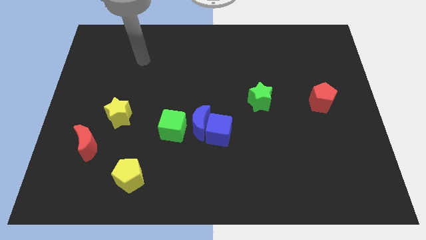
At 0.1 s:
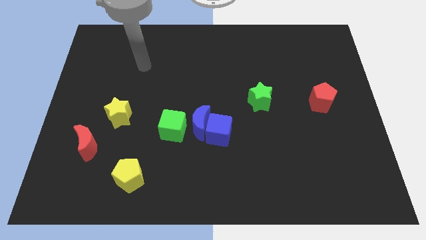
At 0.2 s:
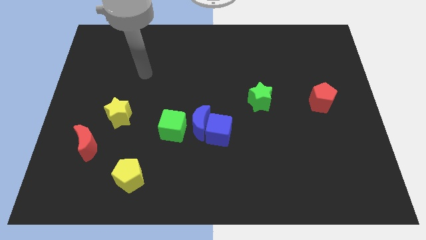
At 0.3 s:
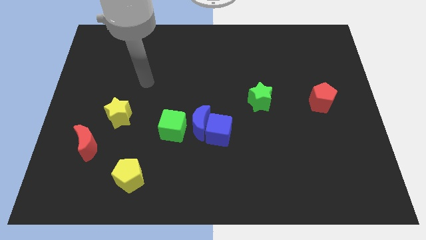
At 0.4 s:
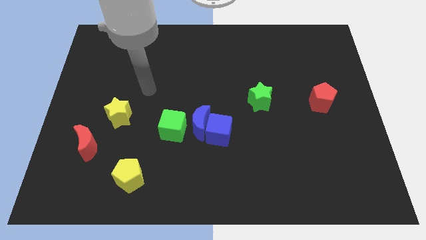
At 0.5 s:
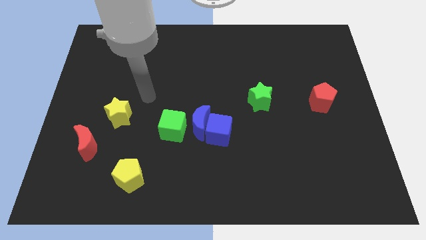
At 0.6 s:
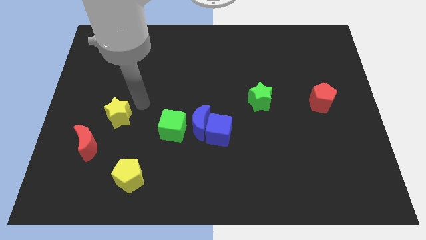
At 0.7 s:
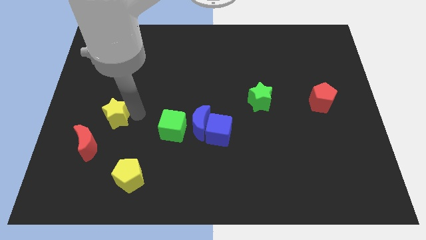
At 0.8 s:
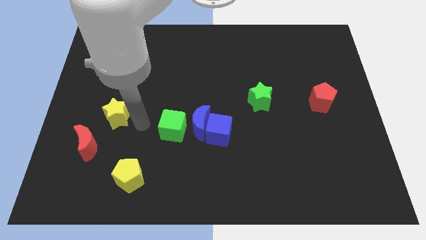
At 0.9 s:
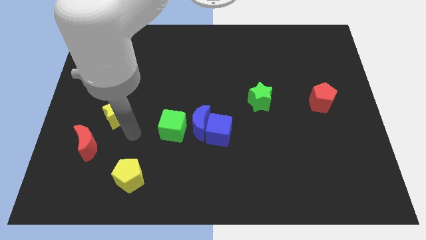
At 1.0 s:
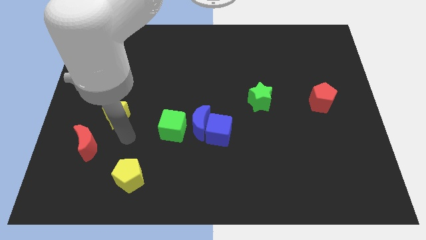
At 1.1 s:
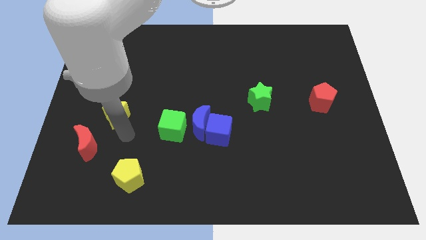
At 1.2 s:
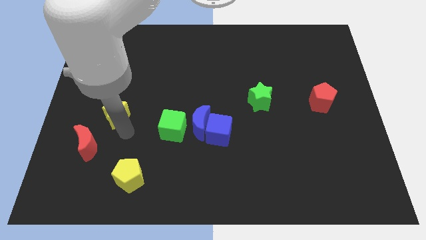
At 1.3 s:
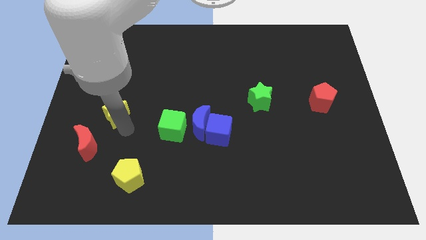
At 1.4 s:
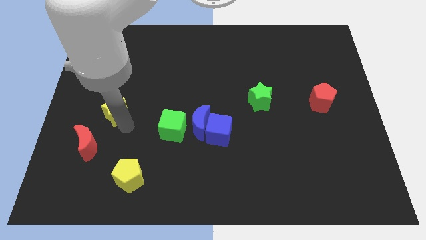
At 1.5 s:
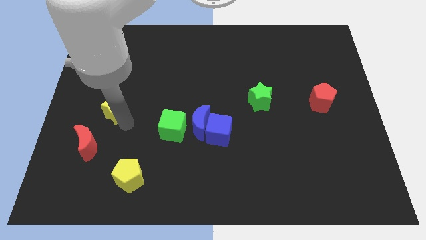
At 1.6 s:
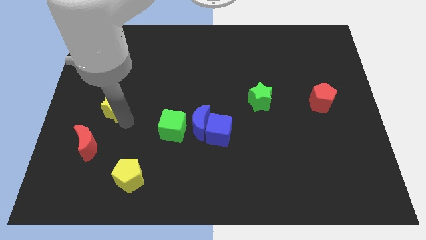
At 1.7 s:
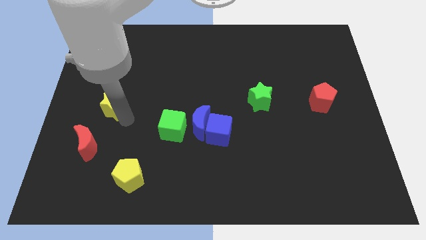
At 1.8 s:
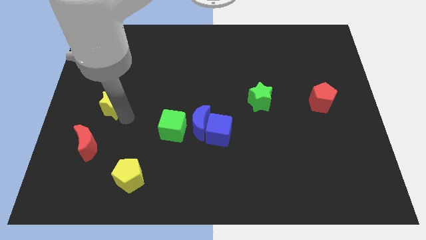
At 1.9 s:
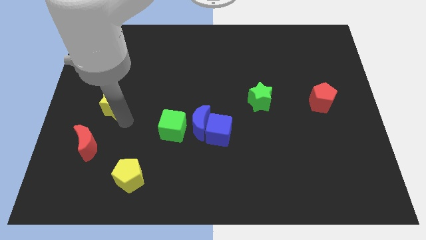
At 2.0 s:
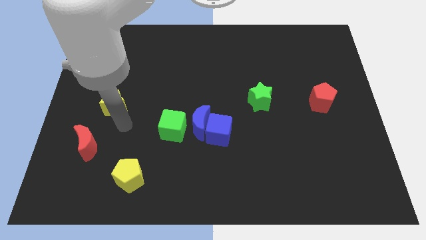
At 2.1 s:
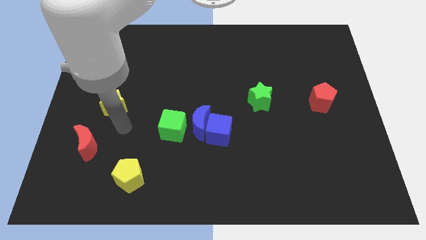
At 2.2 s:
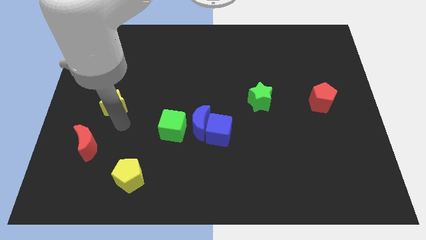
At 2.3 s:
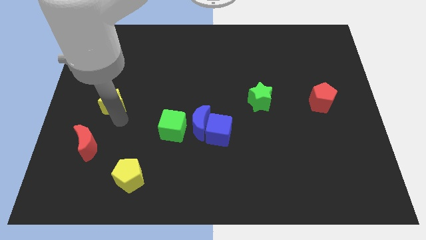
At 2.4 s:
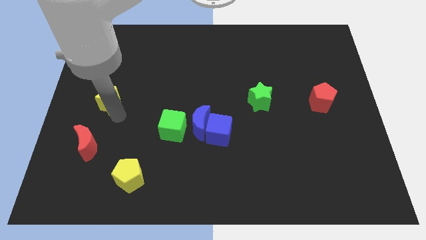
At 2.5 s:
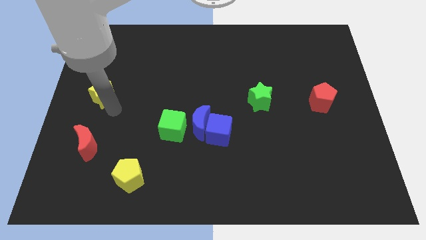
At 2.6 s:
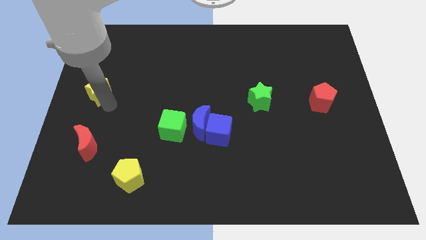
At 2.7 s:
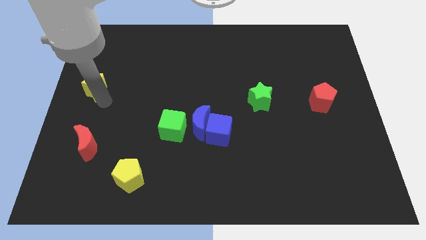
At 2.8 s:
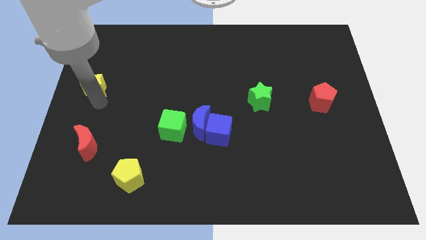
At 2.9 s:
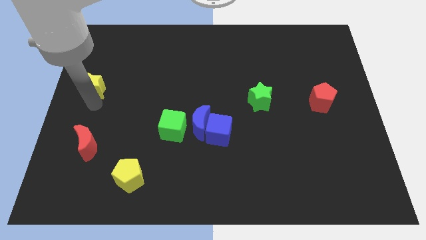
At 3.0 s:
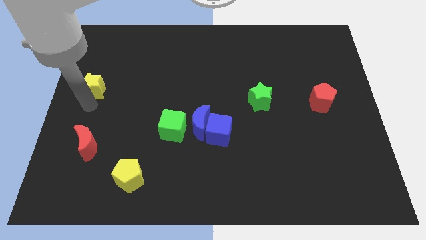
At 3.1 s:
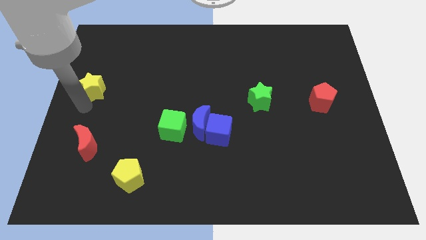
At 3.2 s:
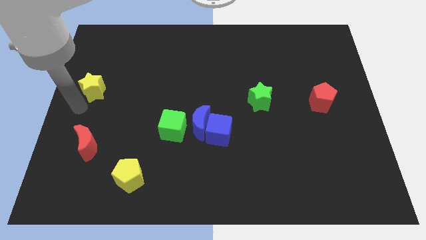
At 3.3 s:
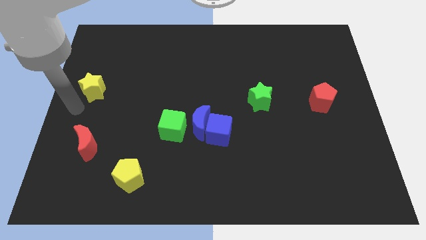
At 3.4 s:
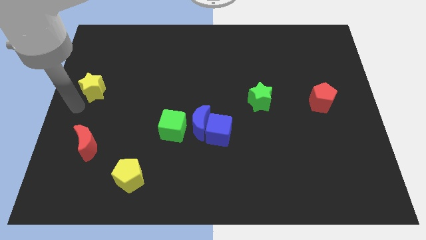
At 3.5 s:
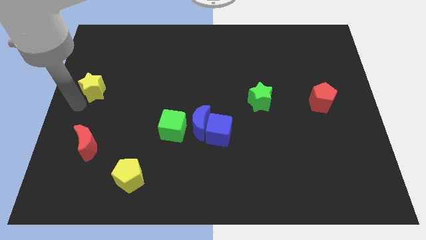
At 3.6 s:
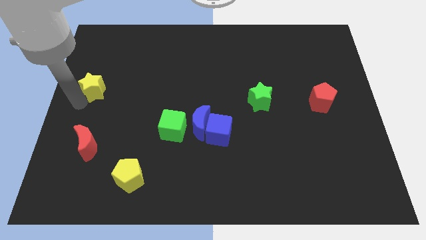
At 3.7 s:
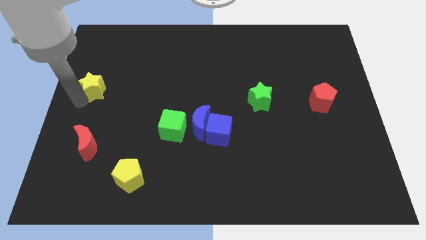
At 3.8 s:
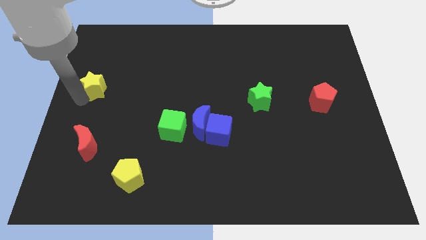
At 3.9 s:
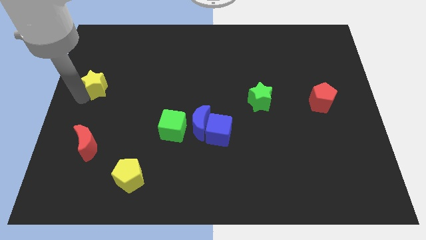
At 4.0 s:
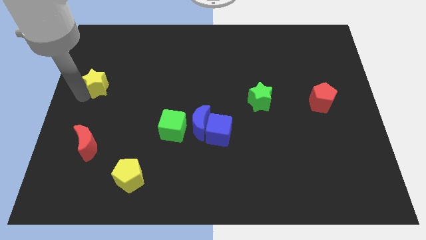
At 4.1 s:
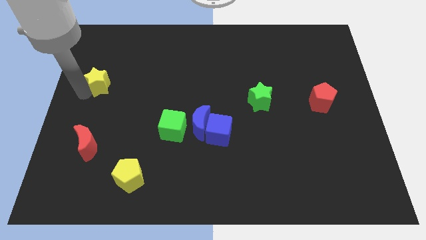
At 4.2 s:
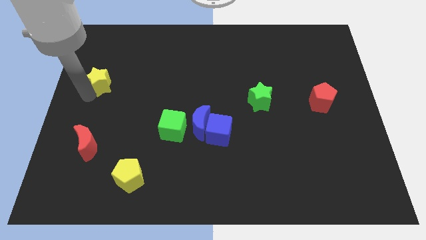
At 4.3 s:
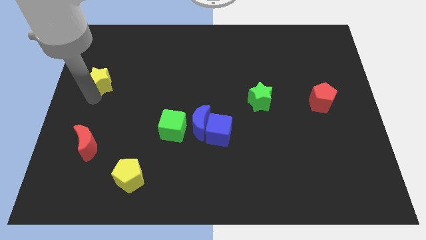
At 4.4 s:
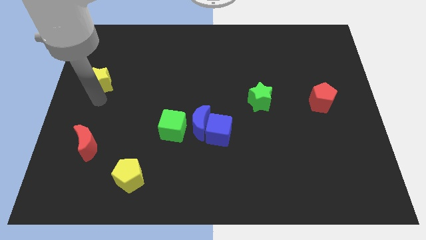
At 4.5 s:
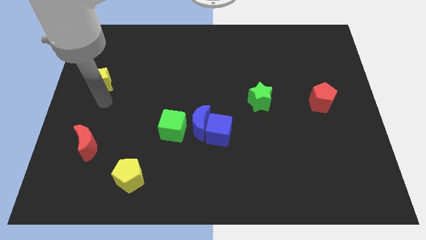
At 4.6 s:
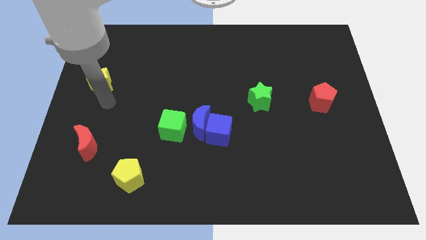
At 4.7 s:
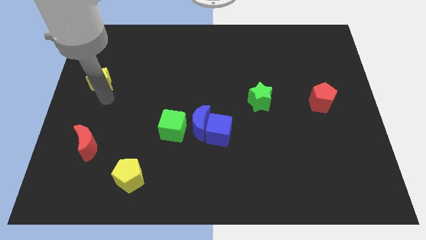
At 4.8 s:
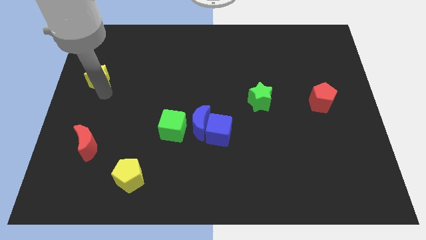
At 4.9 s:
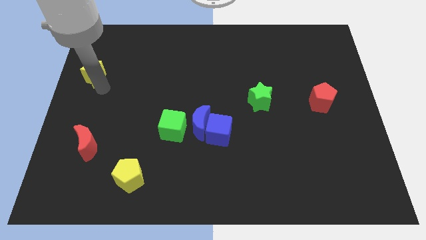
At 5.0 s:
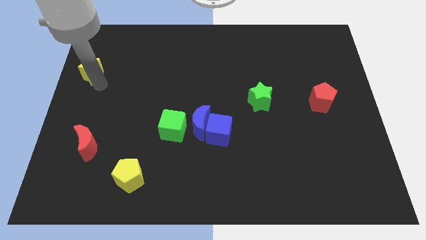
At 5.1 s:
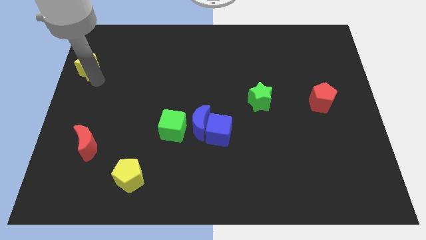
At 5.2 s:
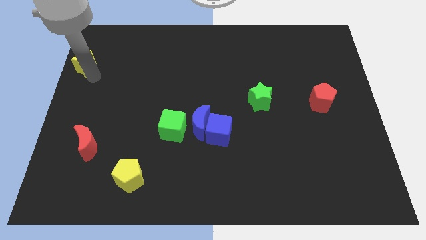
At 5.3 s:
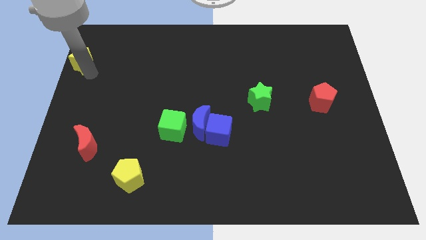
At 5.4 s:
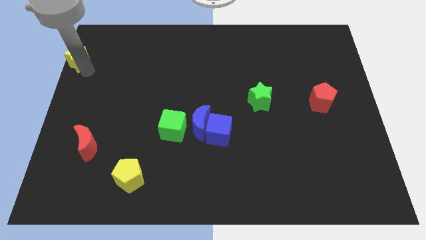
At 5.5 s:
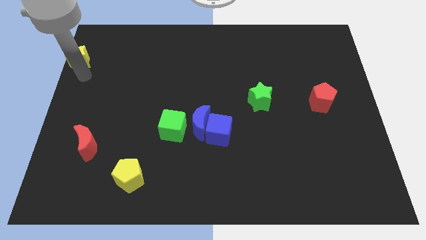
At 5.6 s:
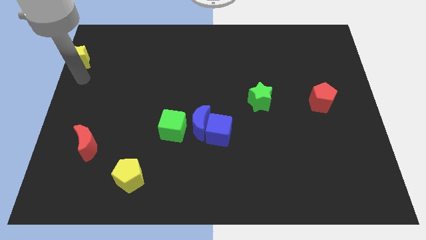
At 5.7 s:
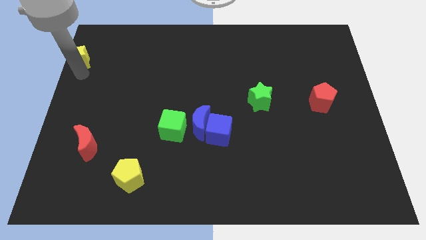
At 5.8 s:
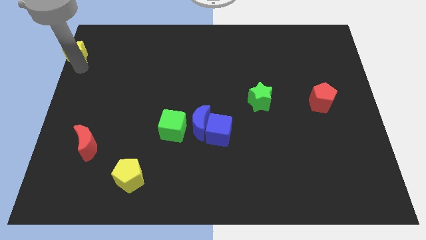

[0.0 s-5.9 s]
push the yellow star to the top left of the board

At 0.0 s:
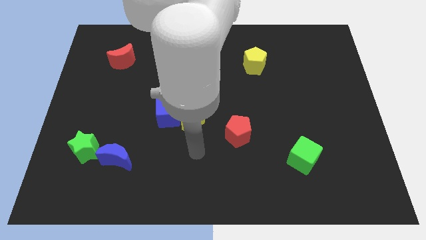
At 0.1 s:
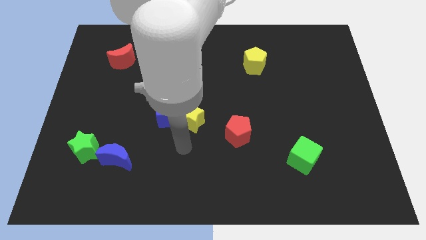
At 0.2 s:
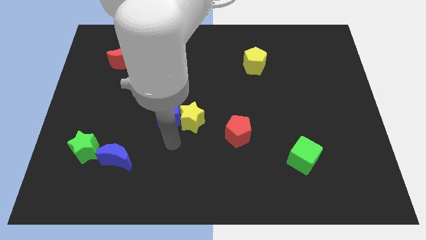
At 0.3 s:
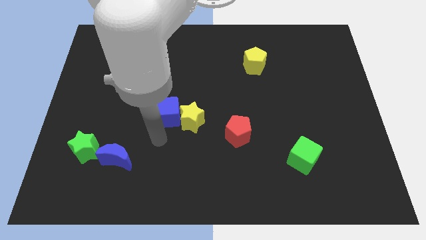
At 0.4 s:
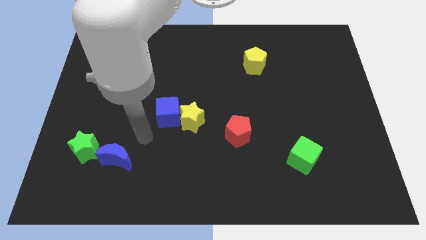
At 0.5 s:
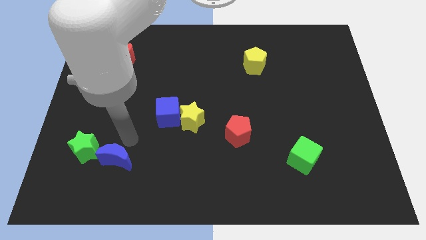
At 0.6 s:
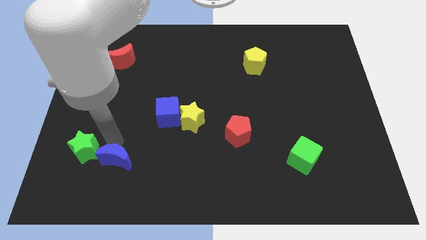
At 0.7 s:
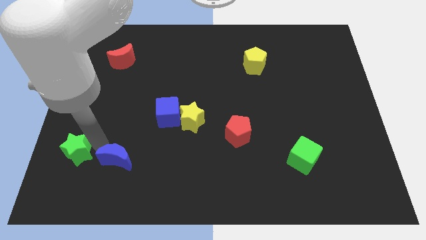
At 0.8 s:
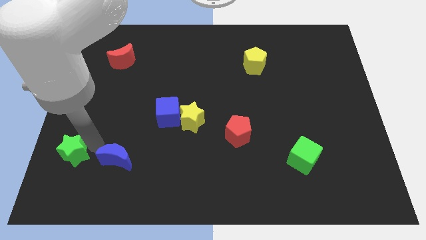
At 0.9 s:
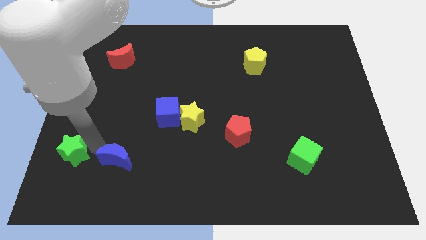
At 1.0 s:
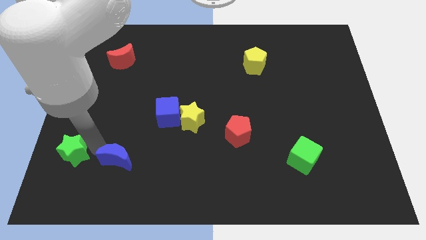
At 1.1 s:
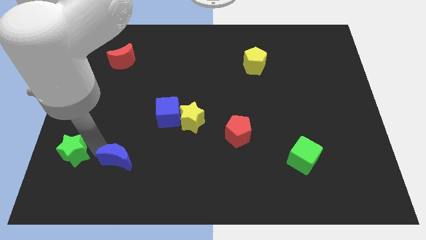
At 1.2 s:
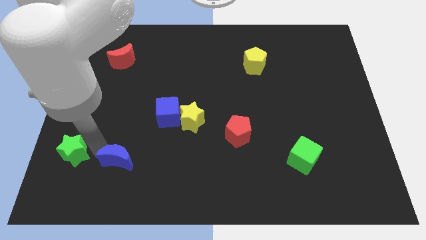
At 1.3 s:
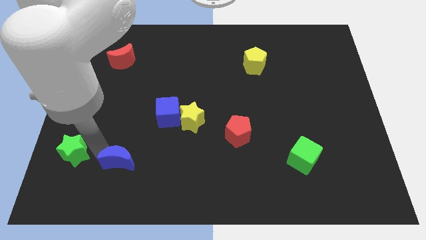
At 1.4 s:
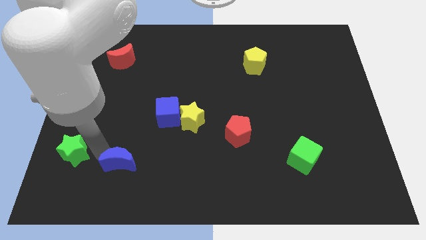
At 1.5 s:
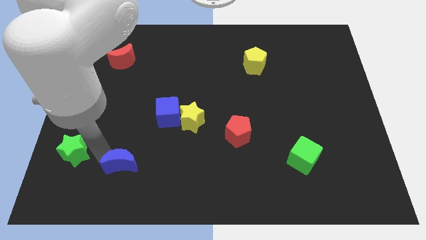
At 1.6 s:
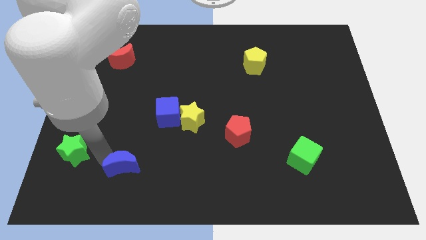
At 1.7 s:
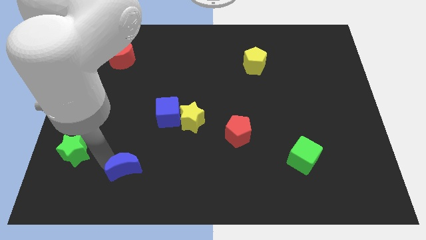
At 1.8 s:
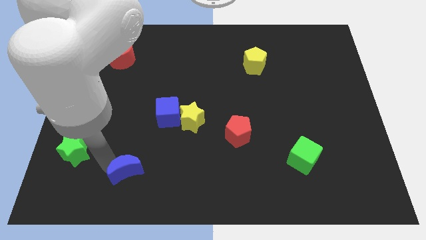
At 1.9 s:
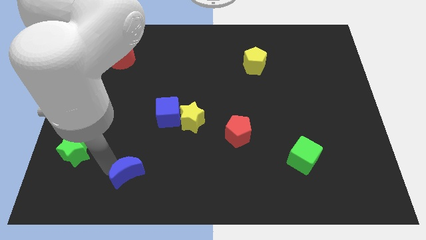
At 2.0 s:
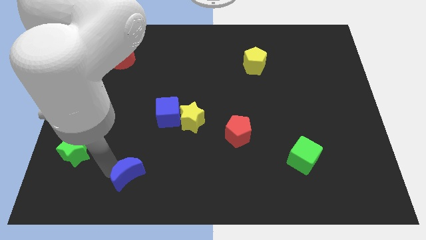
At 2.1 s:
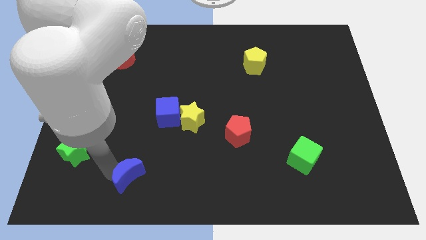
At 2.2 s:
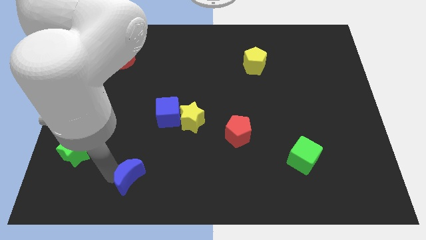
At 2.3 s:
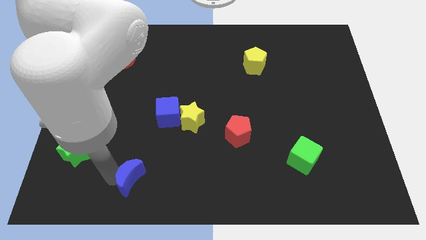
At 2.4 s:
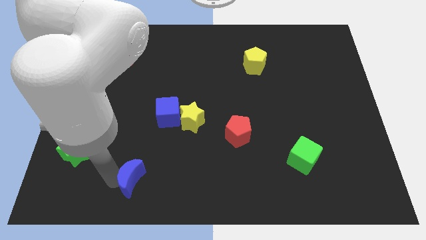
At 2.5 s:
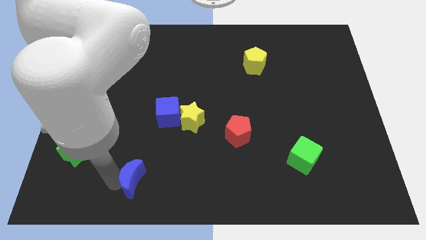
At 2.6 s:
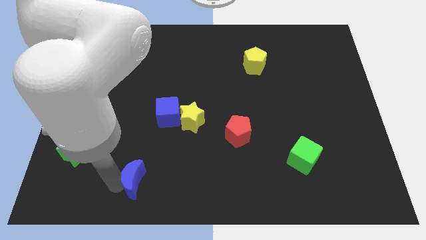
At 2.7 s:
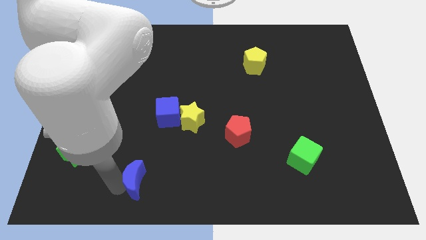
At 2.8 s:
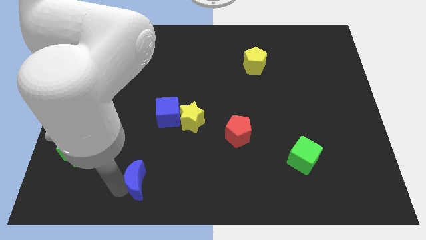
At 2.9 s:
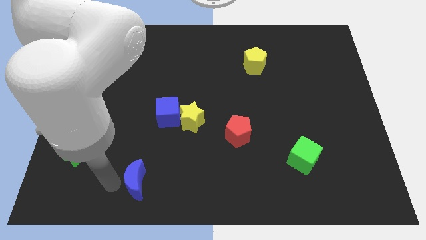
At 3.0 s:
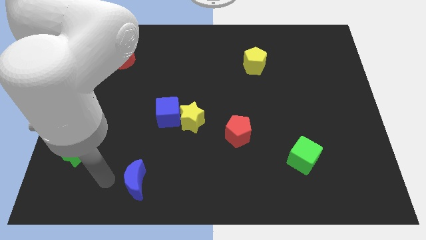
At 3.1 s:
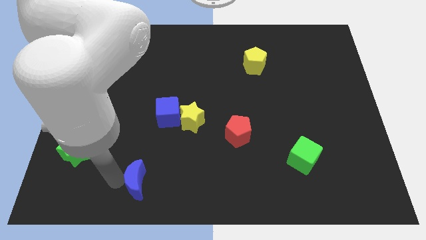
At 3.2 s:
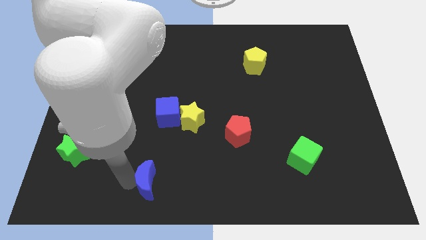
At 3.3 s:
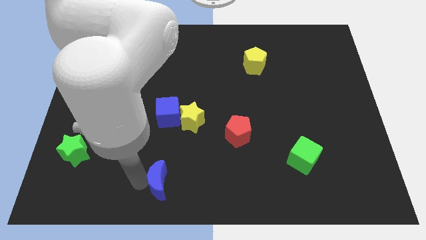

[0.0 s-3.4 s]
move the blue moon to the bottom
